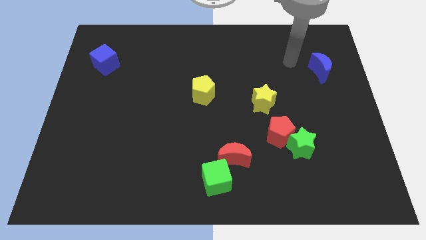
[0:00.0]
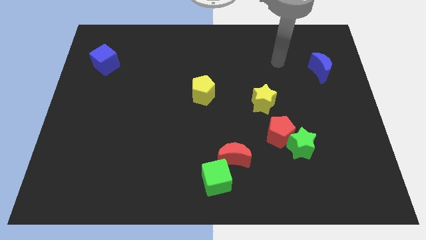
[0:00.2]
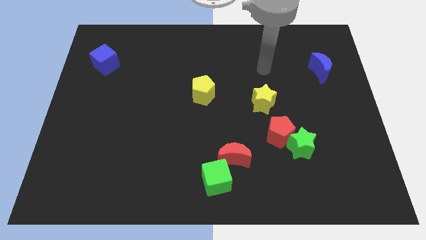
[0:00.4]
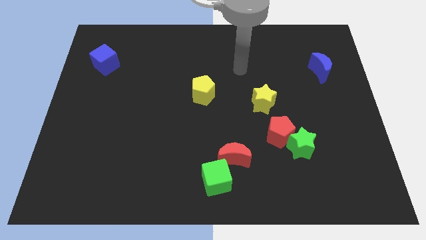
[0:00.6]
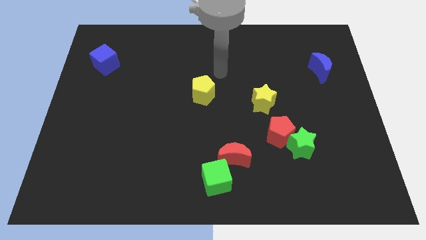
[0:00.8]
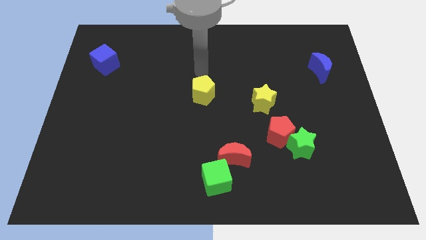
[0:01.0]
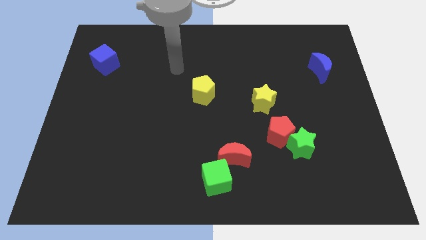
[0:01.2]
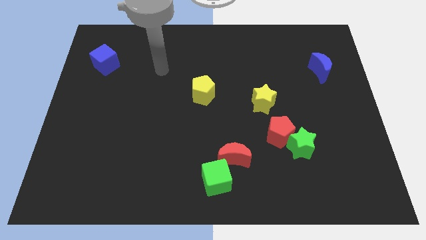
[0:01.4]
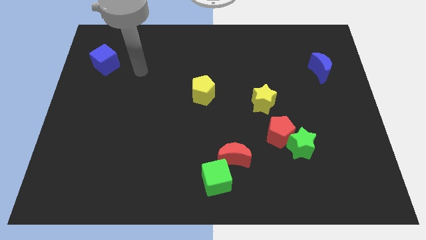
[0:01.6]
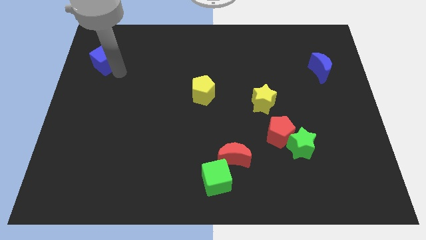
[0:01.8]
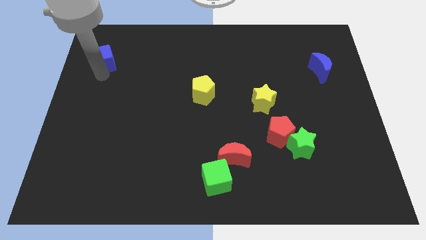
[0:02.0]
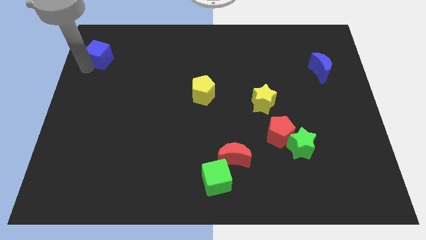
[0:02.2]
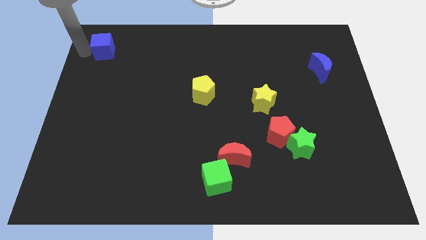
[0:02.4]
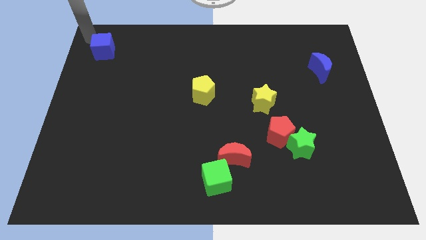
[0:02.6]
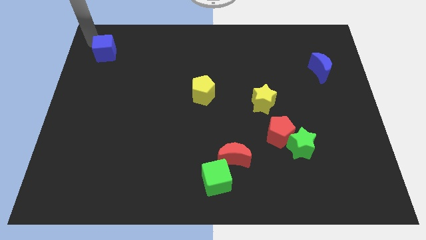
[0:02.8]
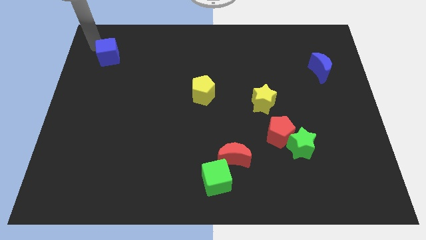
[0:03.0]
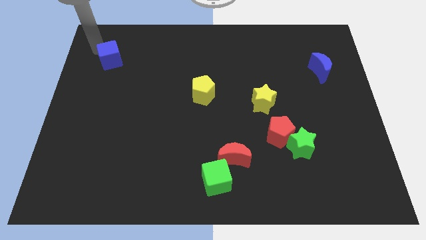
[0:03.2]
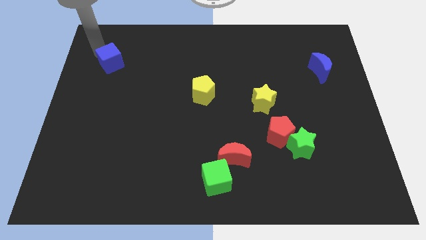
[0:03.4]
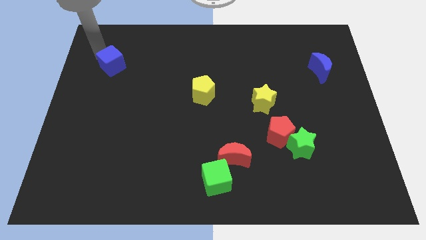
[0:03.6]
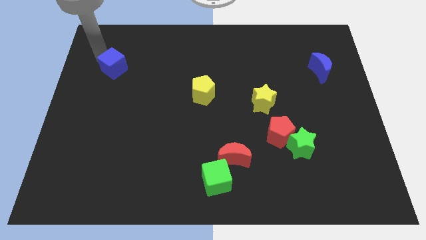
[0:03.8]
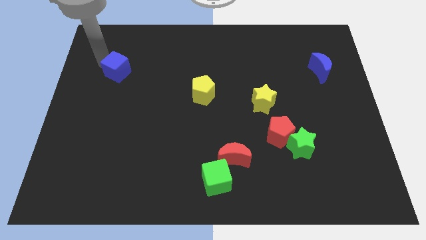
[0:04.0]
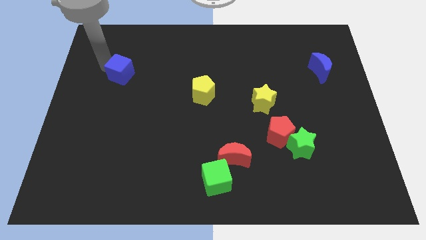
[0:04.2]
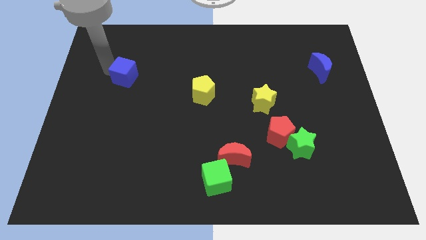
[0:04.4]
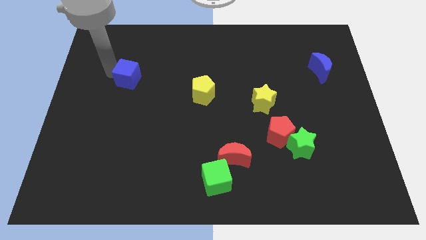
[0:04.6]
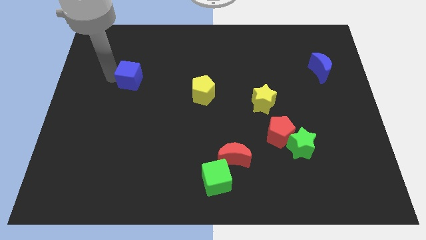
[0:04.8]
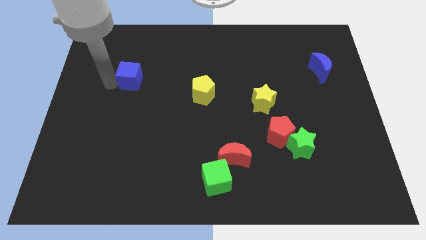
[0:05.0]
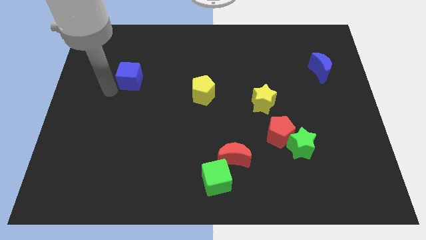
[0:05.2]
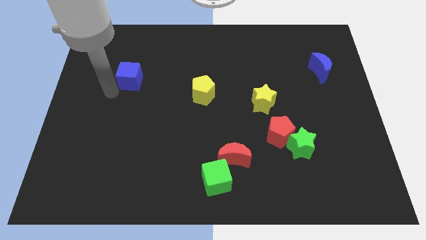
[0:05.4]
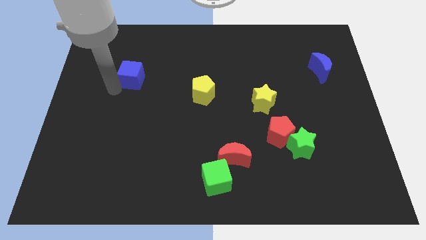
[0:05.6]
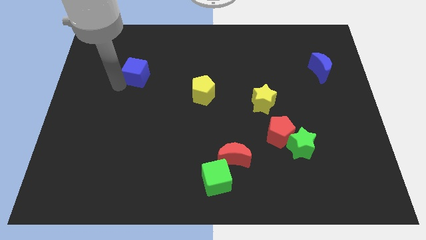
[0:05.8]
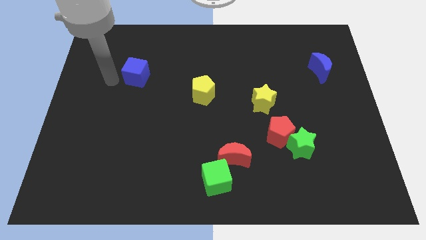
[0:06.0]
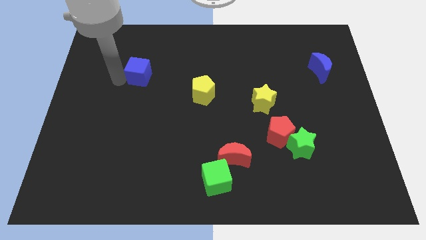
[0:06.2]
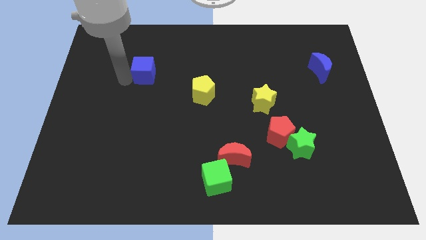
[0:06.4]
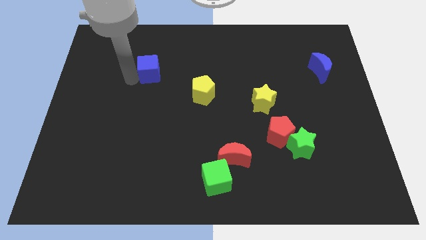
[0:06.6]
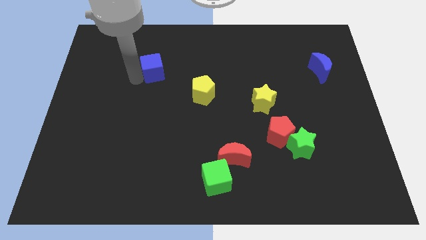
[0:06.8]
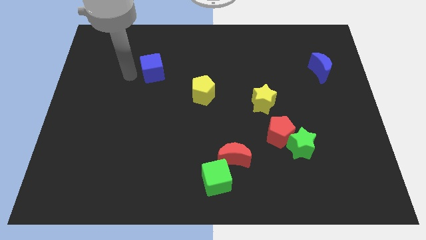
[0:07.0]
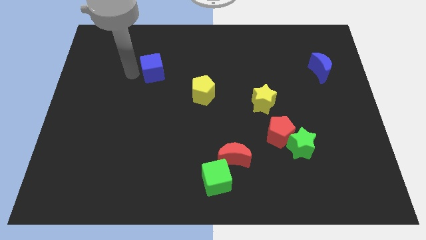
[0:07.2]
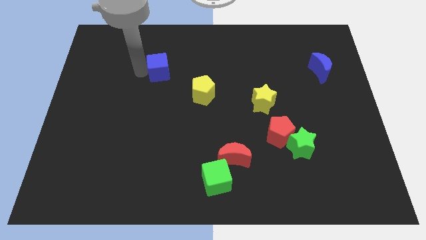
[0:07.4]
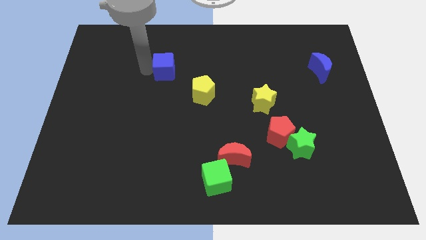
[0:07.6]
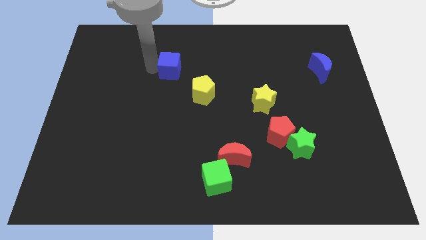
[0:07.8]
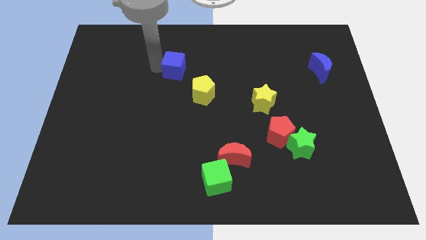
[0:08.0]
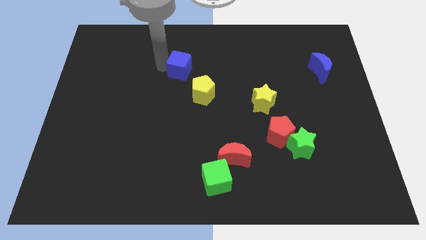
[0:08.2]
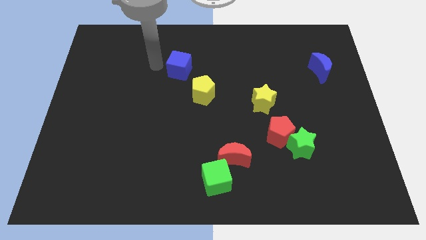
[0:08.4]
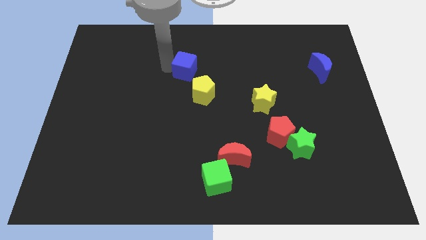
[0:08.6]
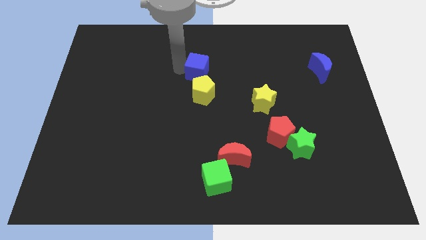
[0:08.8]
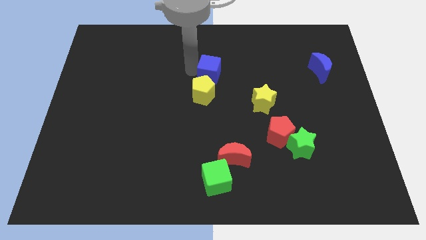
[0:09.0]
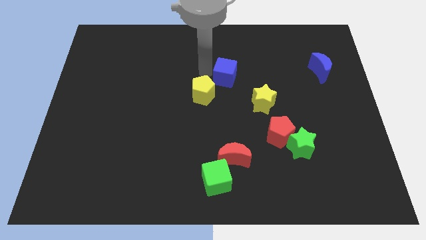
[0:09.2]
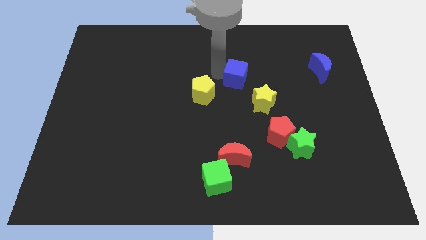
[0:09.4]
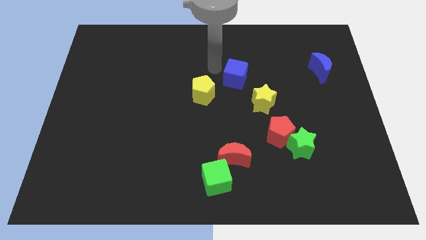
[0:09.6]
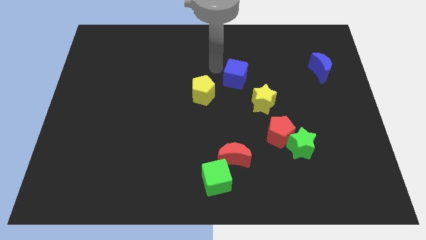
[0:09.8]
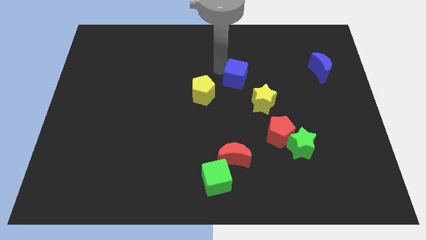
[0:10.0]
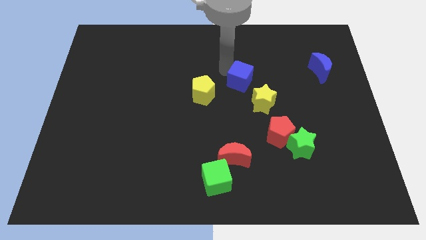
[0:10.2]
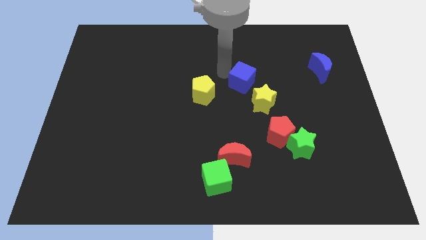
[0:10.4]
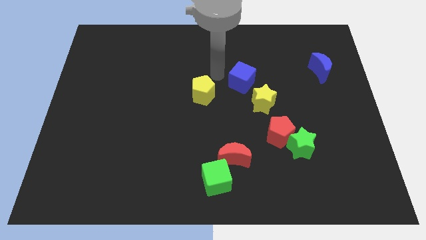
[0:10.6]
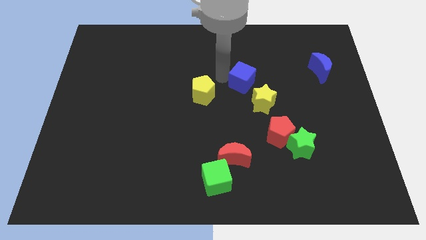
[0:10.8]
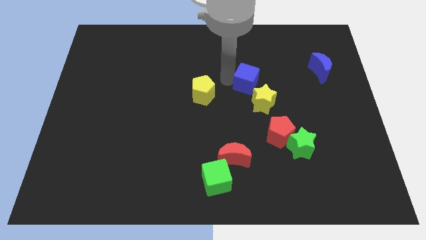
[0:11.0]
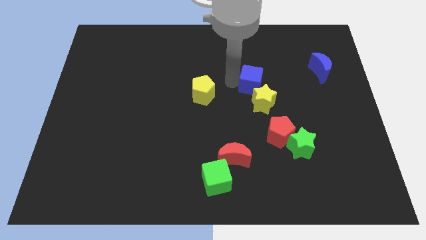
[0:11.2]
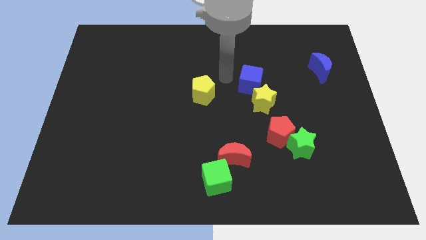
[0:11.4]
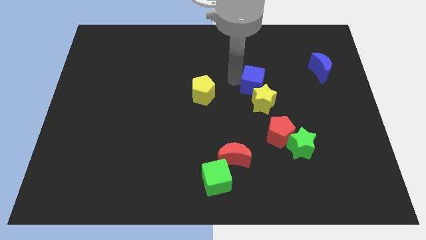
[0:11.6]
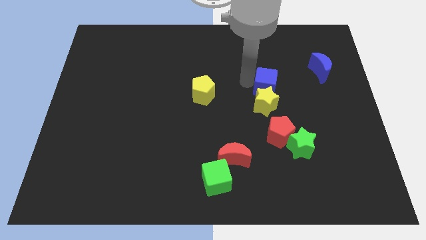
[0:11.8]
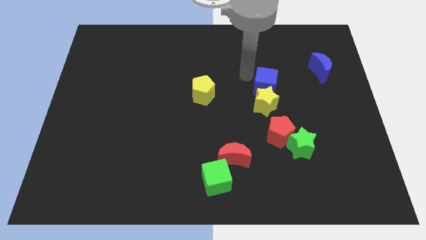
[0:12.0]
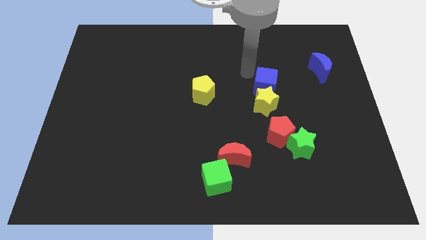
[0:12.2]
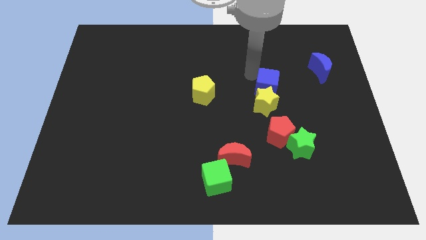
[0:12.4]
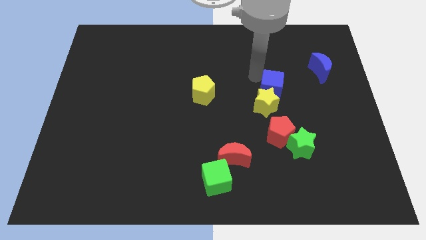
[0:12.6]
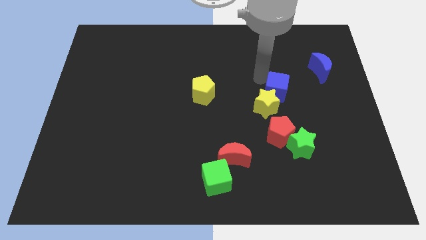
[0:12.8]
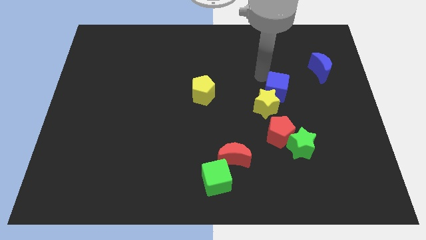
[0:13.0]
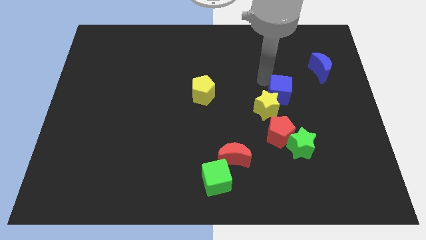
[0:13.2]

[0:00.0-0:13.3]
push the blue cube above the green star
